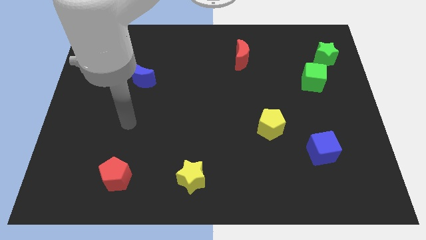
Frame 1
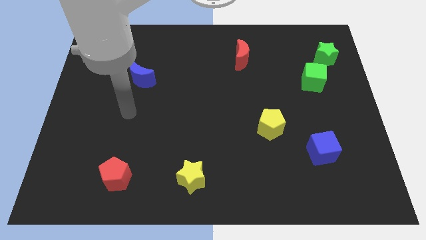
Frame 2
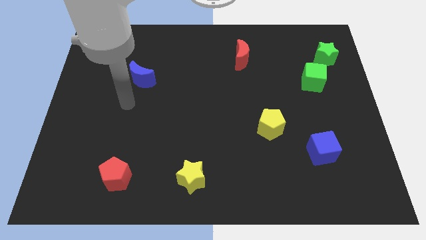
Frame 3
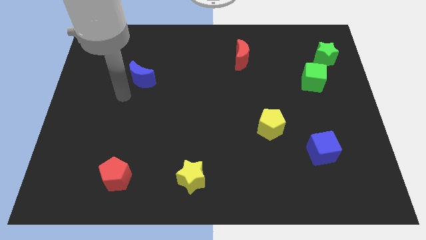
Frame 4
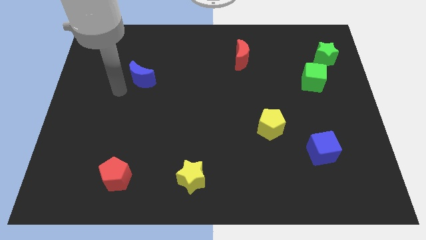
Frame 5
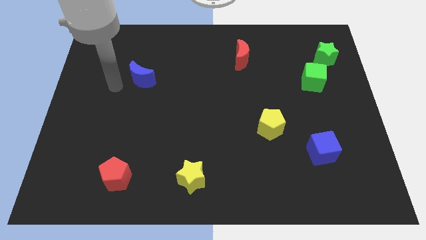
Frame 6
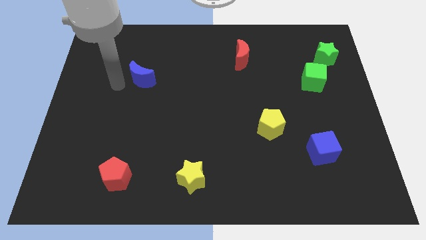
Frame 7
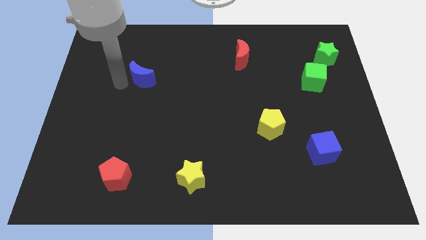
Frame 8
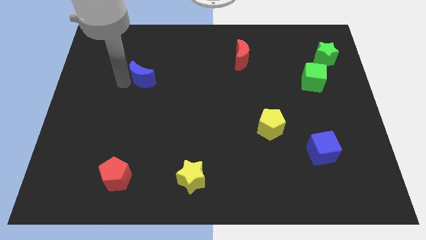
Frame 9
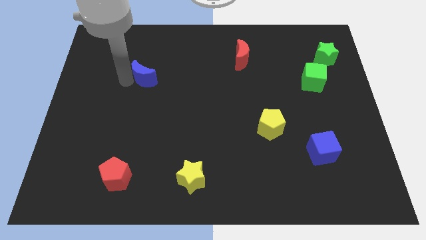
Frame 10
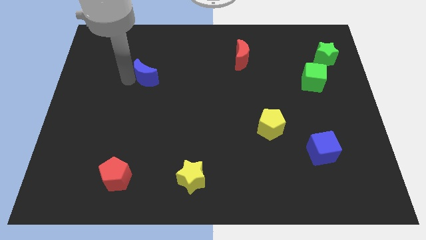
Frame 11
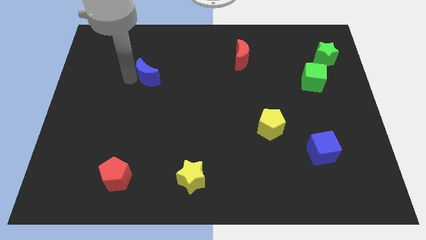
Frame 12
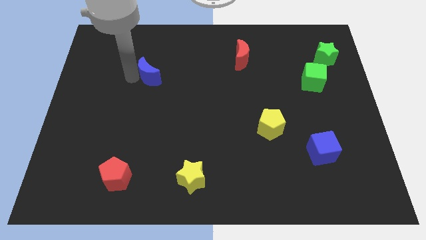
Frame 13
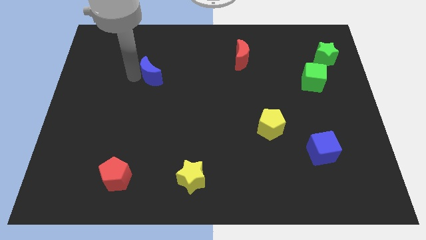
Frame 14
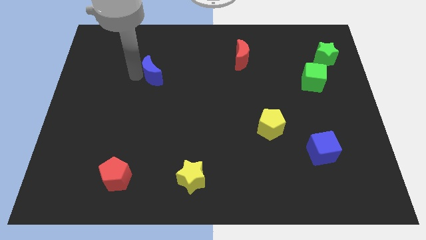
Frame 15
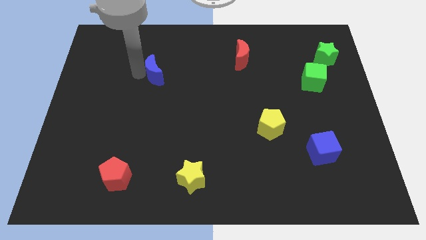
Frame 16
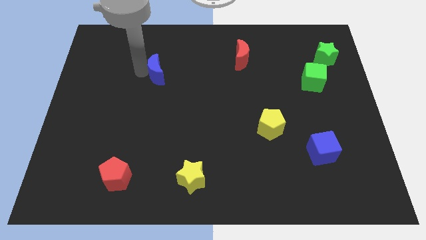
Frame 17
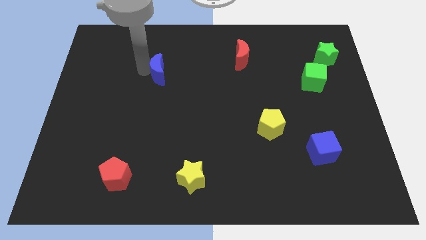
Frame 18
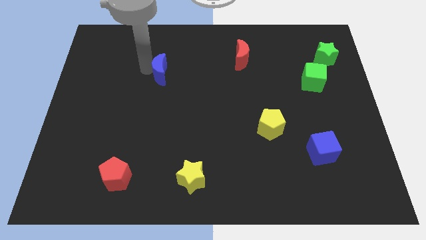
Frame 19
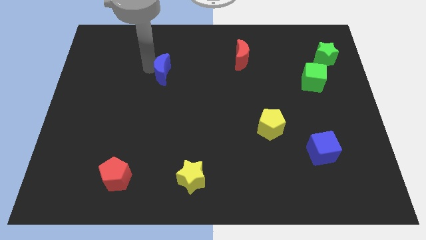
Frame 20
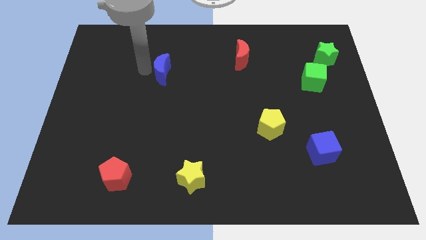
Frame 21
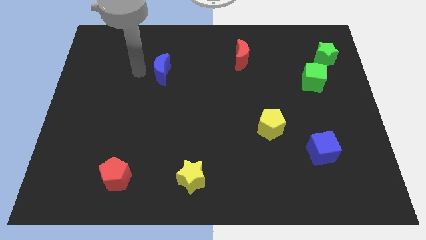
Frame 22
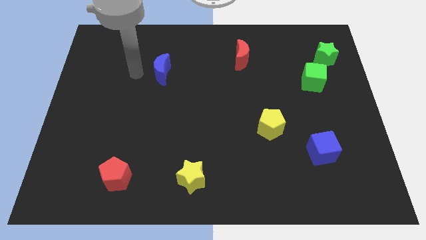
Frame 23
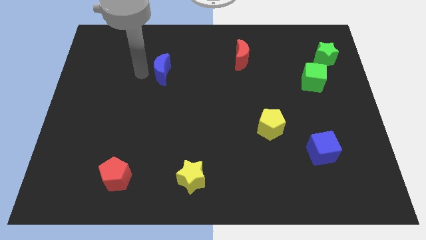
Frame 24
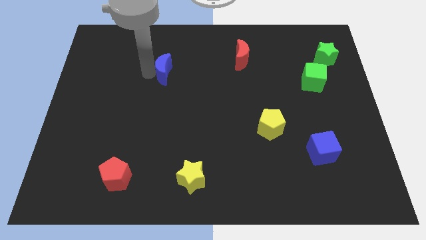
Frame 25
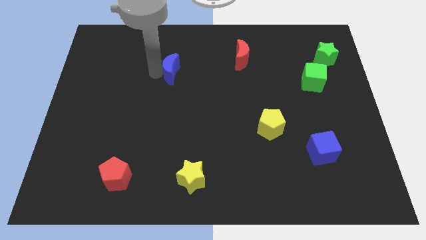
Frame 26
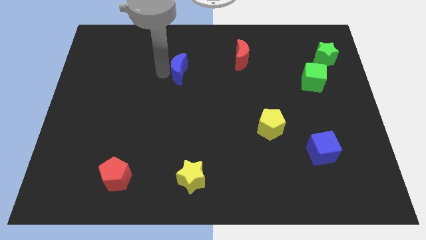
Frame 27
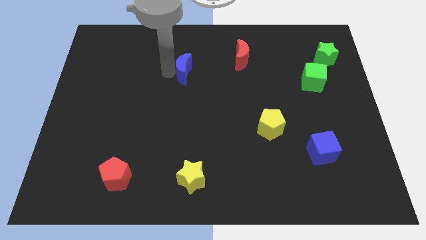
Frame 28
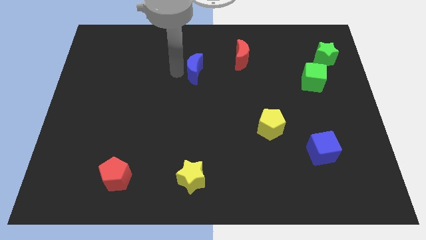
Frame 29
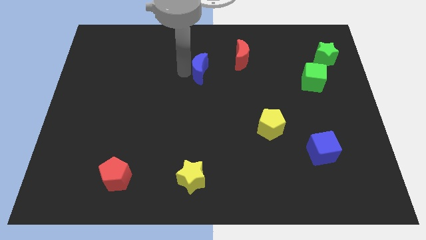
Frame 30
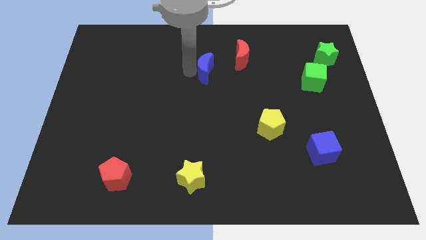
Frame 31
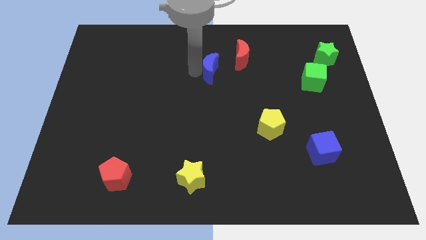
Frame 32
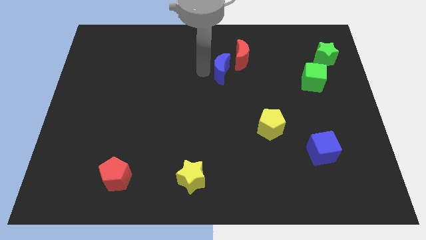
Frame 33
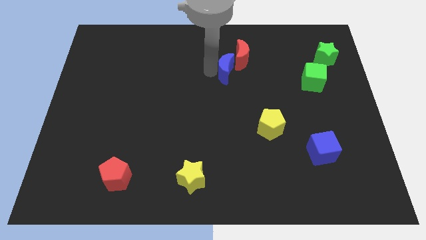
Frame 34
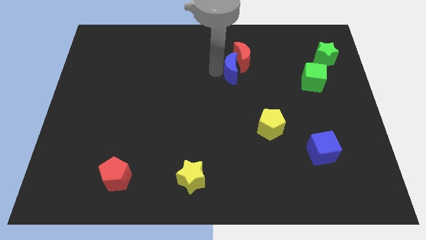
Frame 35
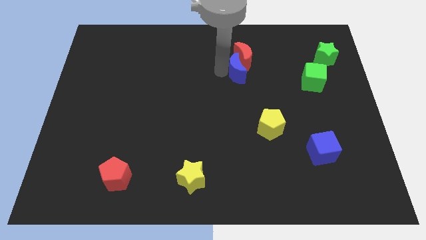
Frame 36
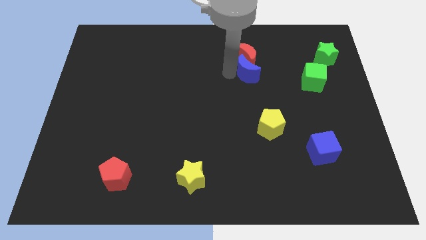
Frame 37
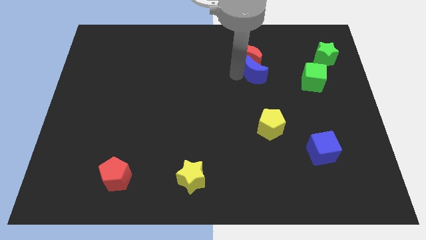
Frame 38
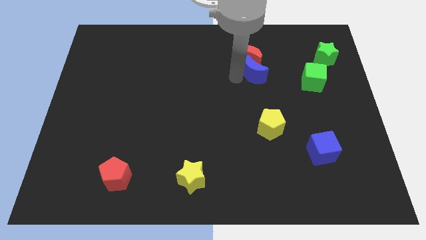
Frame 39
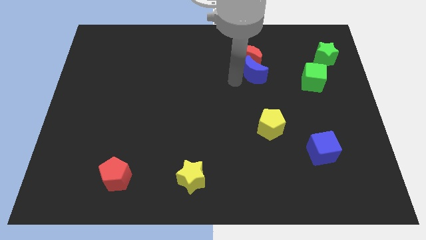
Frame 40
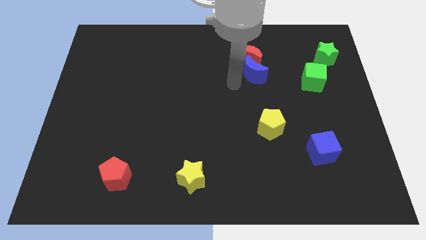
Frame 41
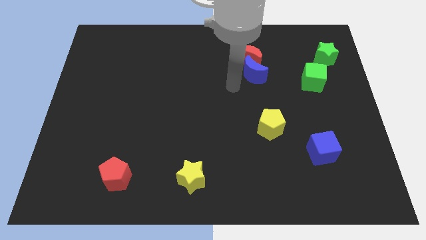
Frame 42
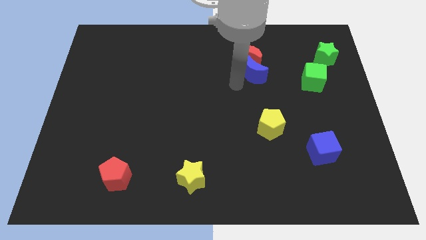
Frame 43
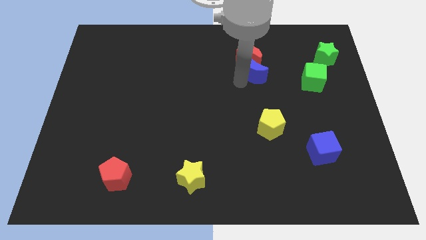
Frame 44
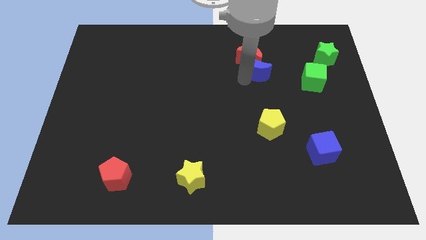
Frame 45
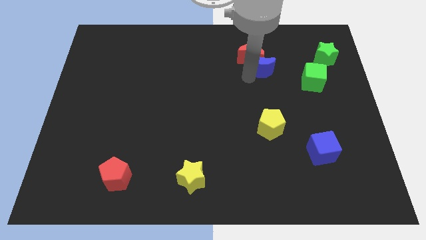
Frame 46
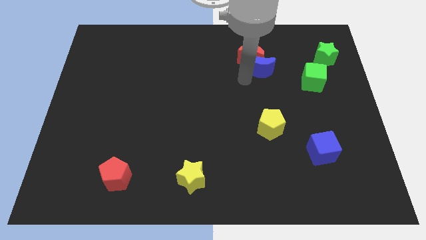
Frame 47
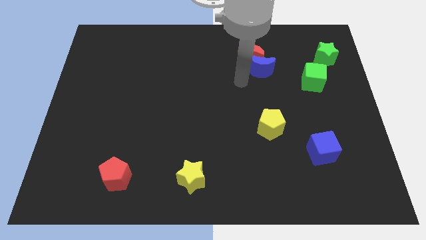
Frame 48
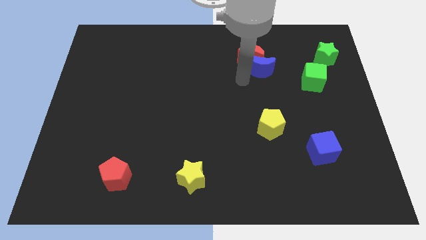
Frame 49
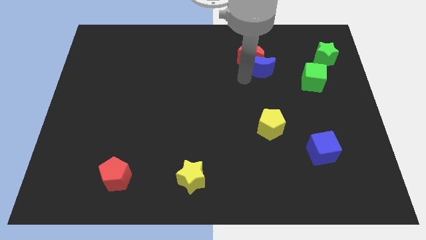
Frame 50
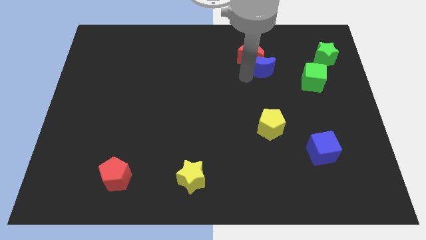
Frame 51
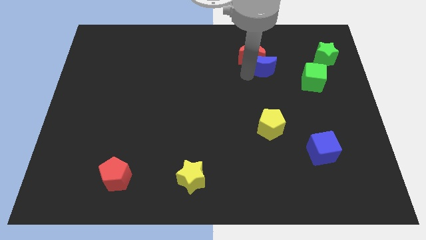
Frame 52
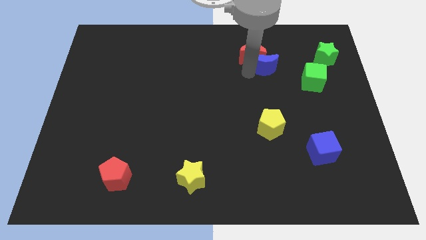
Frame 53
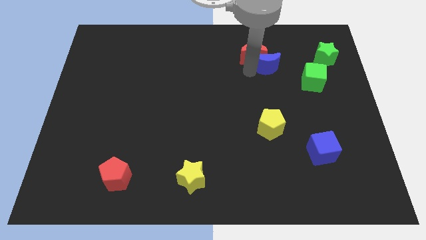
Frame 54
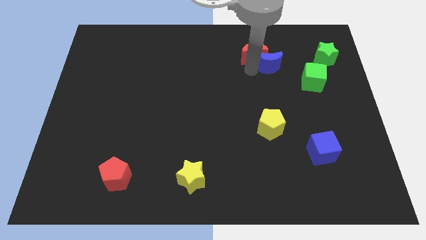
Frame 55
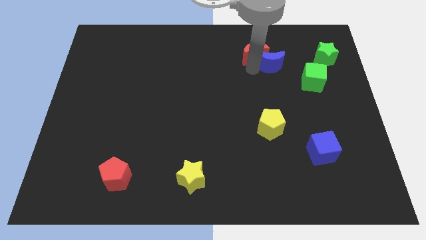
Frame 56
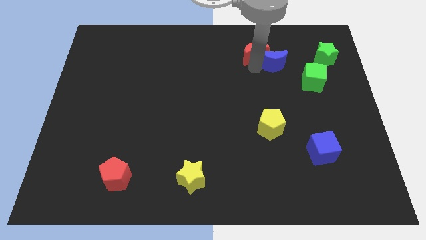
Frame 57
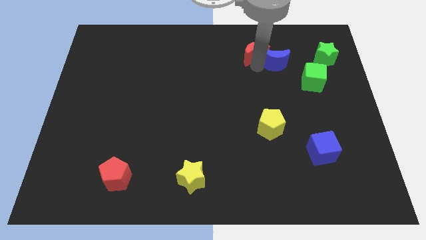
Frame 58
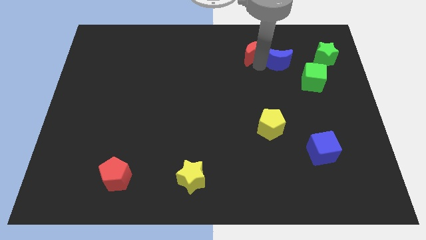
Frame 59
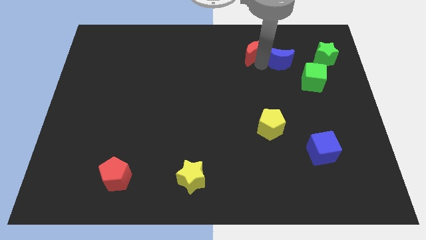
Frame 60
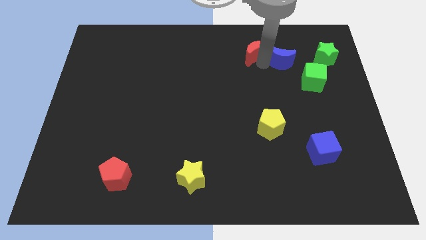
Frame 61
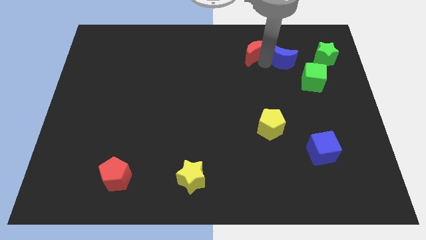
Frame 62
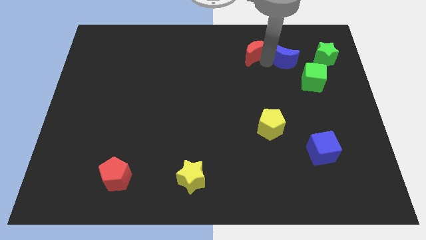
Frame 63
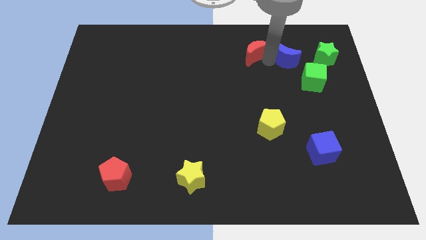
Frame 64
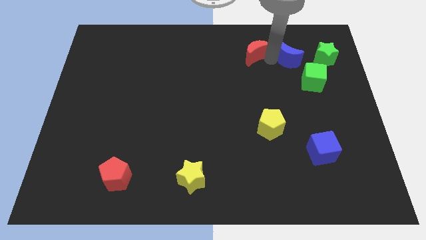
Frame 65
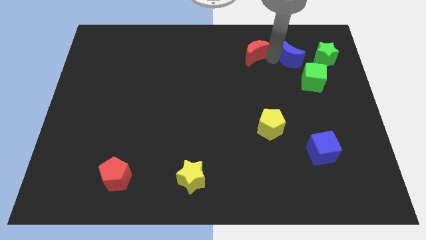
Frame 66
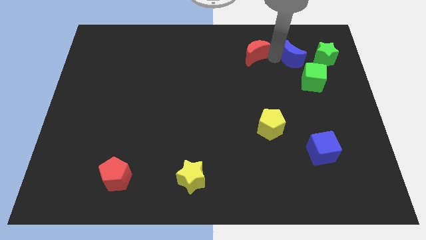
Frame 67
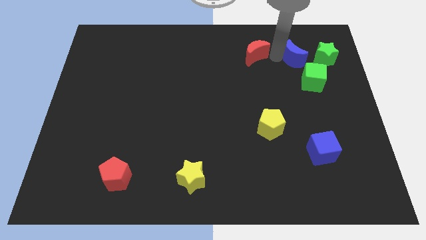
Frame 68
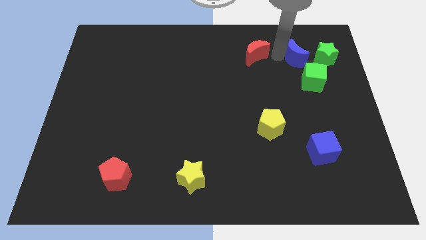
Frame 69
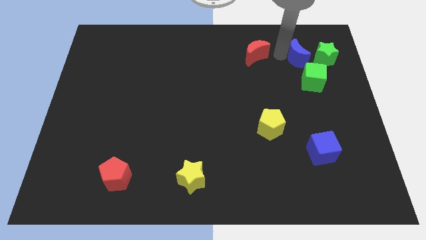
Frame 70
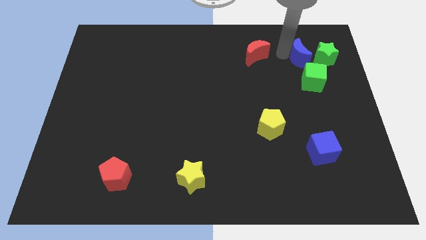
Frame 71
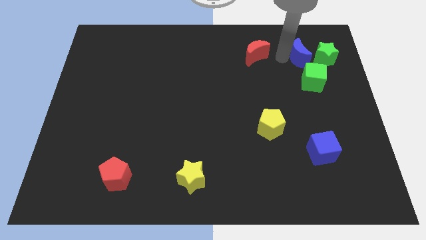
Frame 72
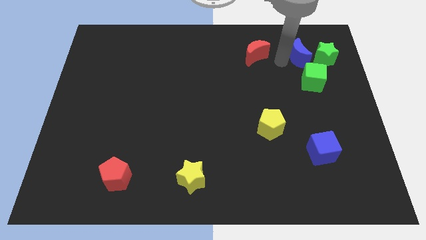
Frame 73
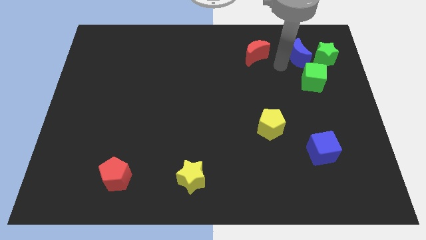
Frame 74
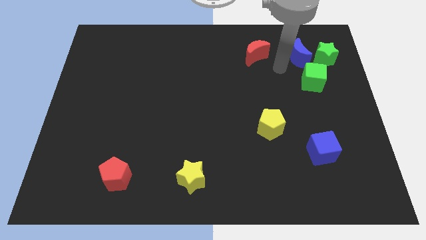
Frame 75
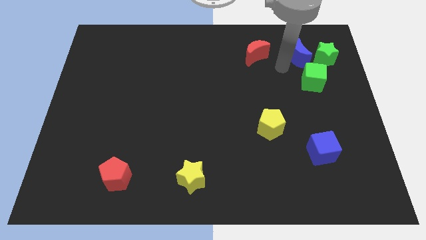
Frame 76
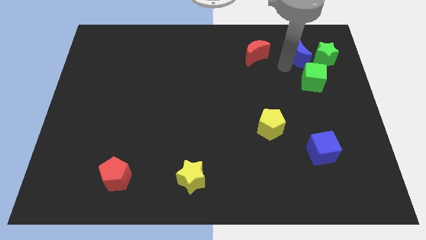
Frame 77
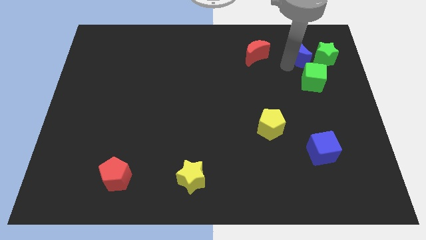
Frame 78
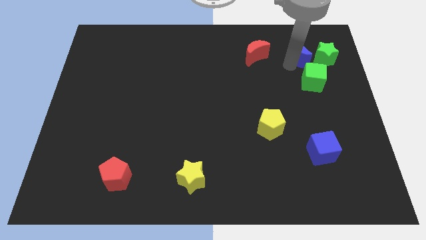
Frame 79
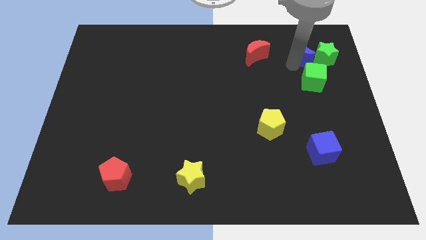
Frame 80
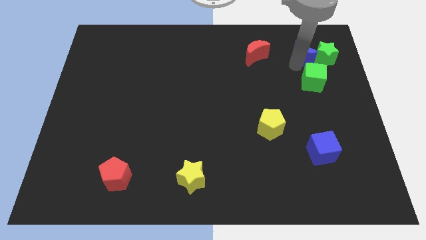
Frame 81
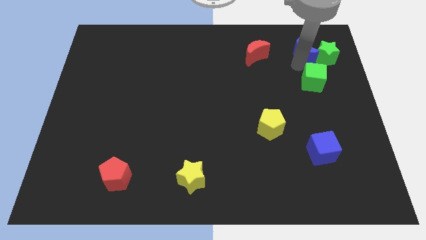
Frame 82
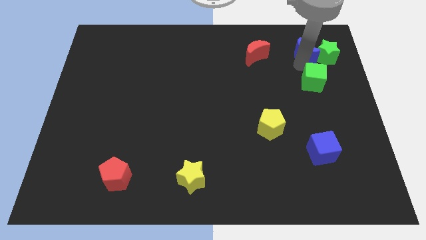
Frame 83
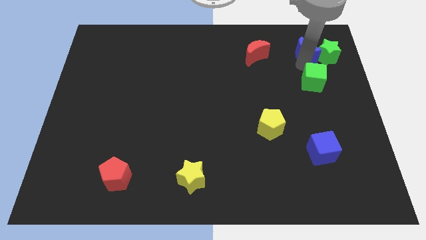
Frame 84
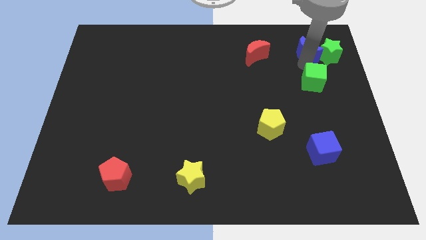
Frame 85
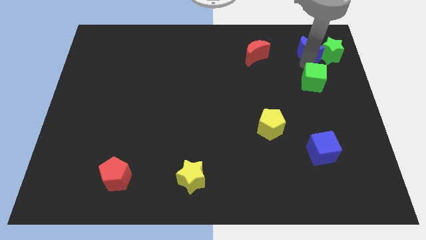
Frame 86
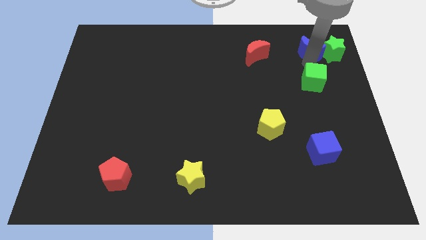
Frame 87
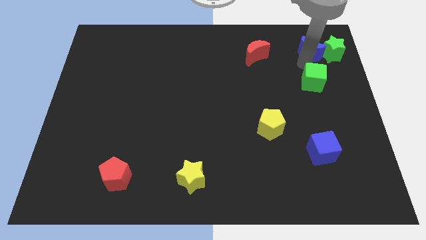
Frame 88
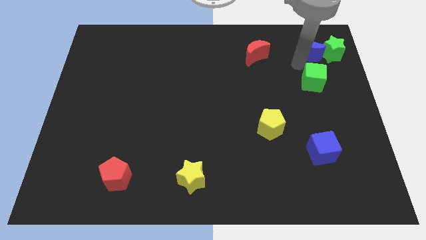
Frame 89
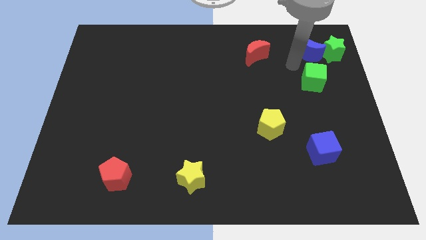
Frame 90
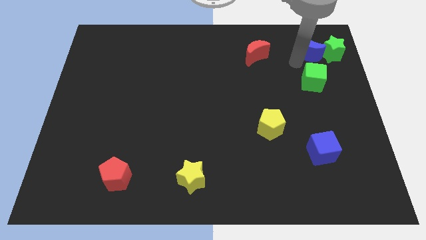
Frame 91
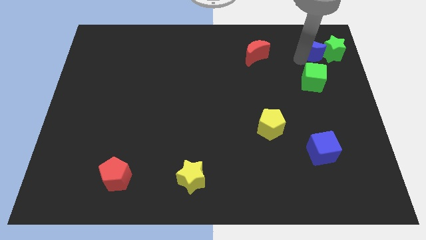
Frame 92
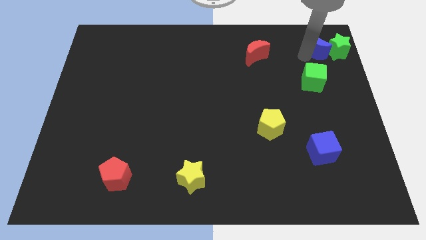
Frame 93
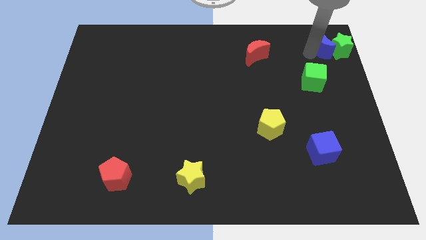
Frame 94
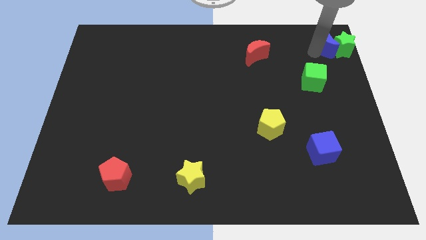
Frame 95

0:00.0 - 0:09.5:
slide the blue moon to the top right corner
